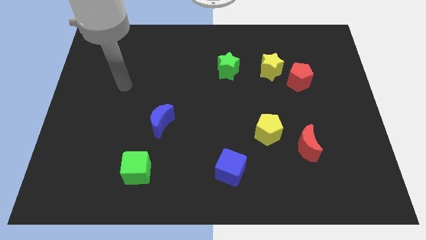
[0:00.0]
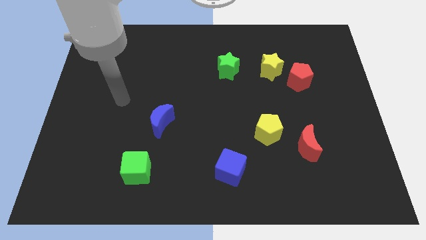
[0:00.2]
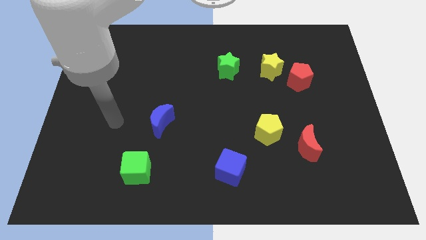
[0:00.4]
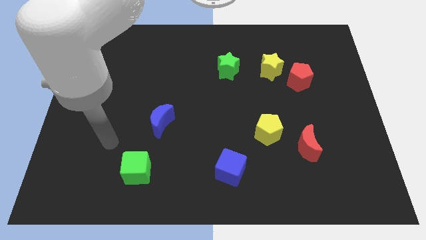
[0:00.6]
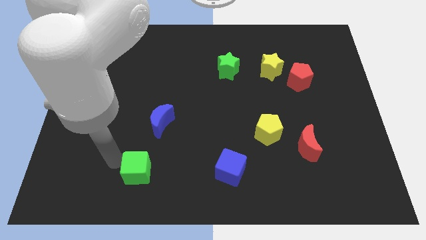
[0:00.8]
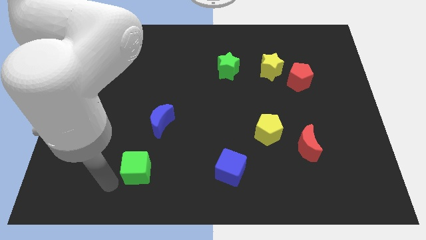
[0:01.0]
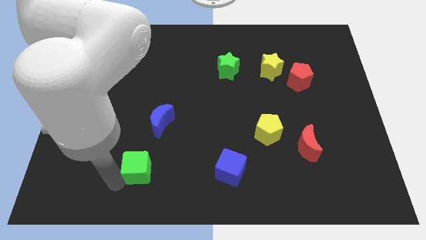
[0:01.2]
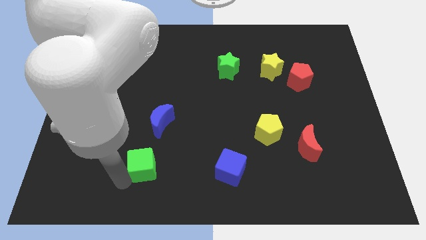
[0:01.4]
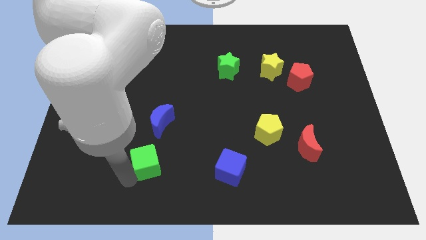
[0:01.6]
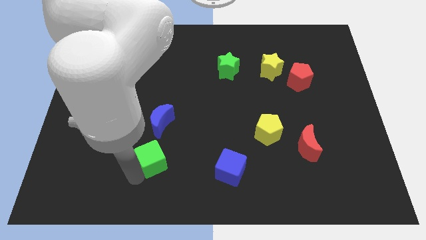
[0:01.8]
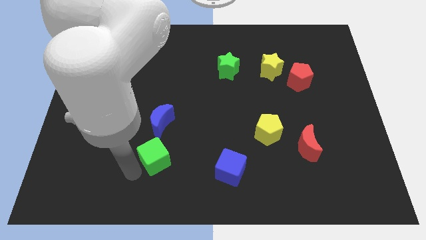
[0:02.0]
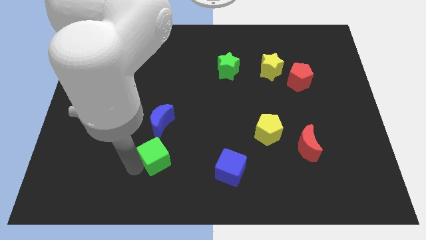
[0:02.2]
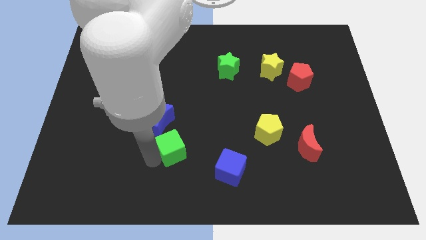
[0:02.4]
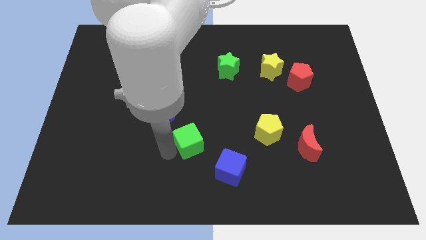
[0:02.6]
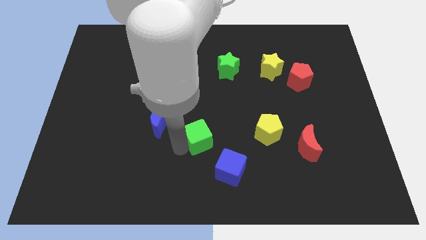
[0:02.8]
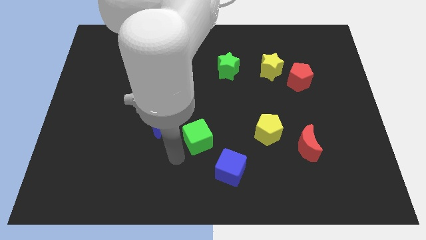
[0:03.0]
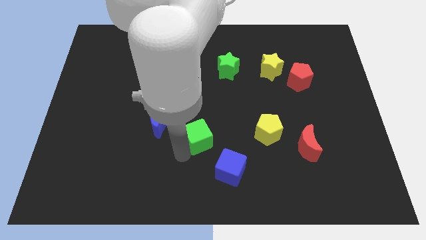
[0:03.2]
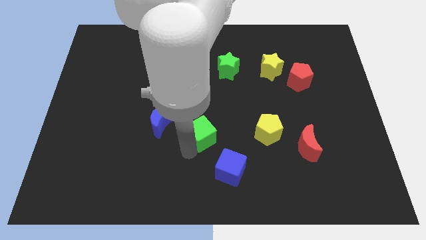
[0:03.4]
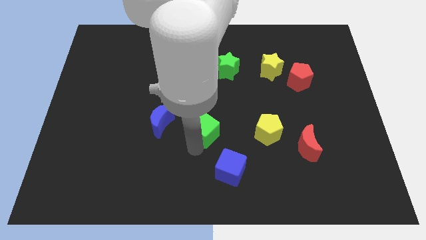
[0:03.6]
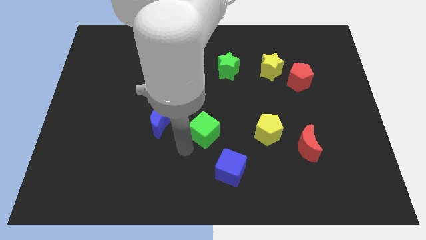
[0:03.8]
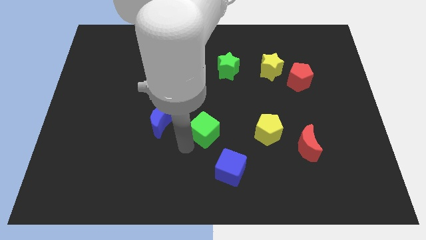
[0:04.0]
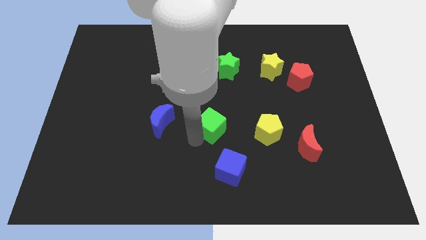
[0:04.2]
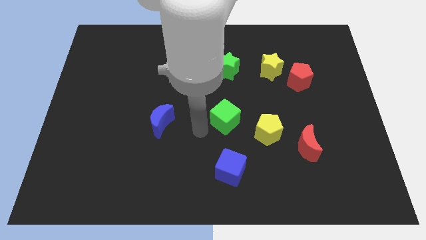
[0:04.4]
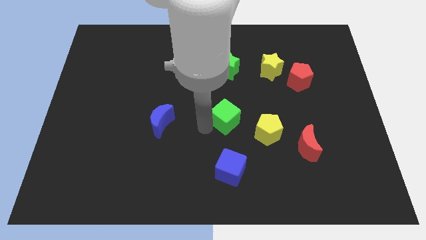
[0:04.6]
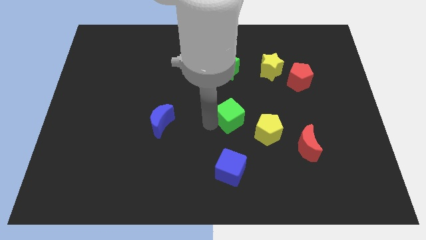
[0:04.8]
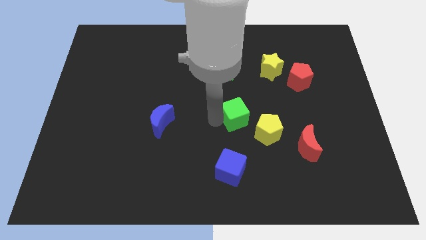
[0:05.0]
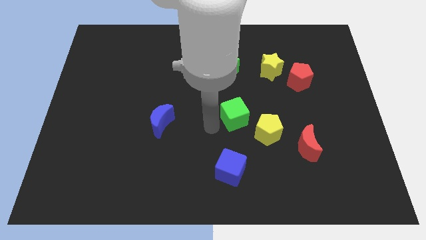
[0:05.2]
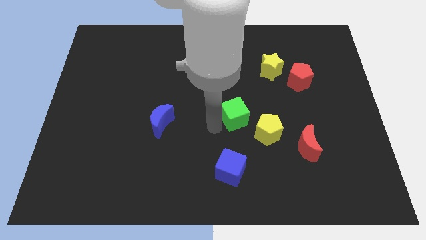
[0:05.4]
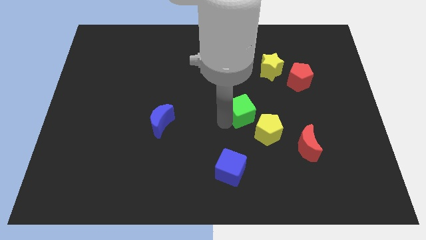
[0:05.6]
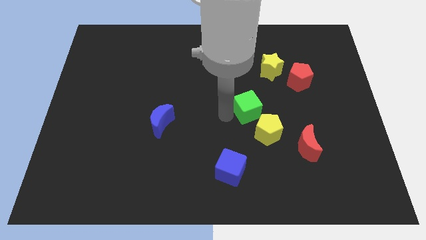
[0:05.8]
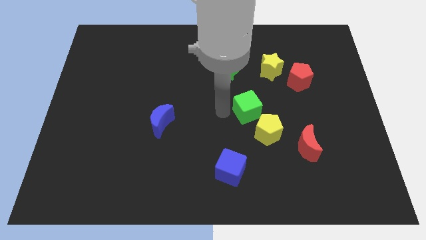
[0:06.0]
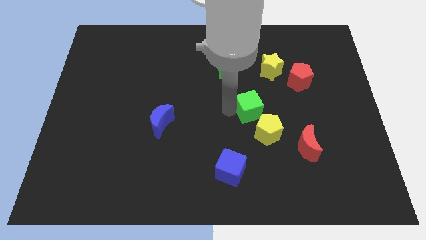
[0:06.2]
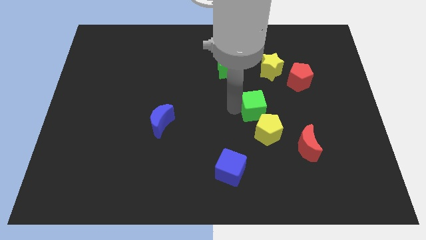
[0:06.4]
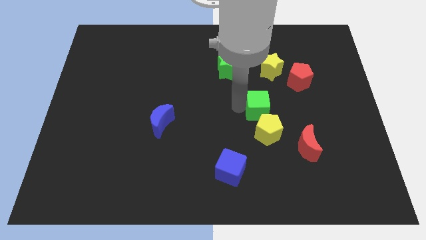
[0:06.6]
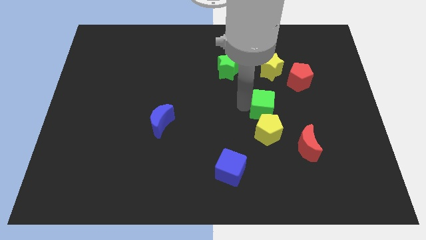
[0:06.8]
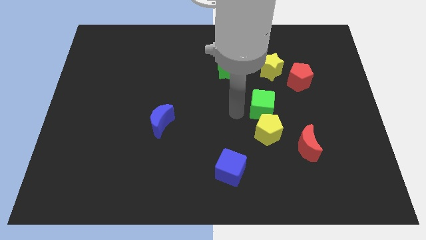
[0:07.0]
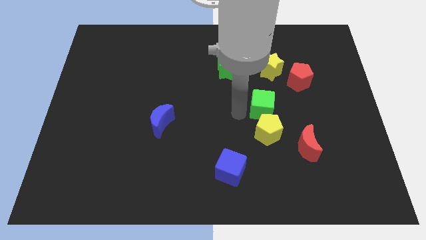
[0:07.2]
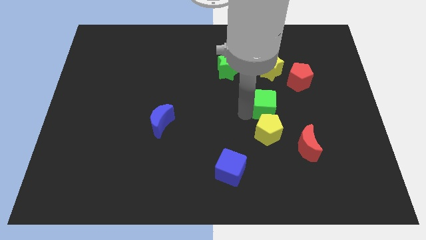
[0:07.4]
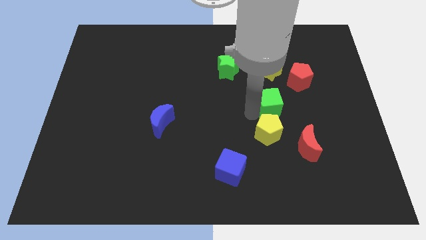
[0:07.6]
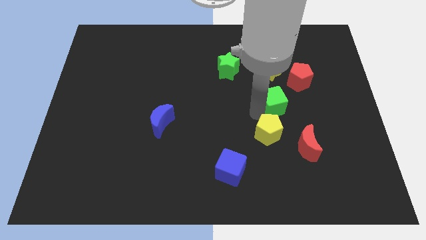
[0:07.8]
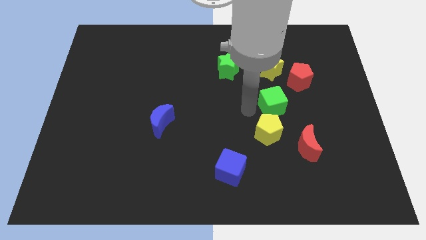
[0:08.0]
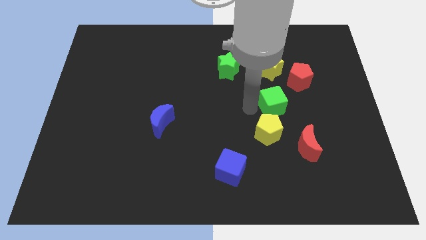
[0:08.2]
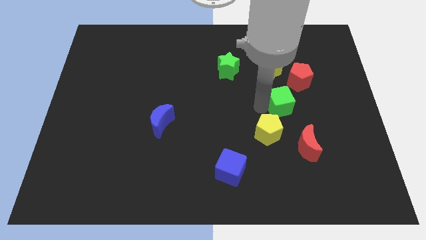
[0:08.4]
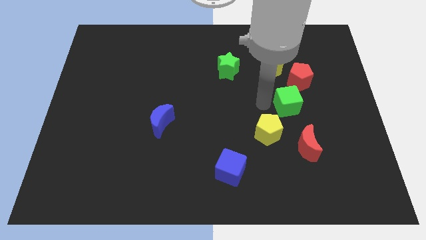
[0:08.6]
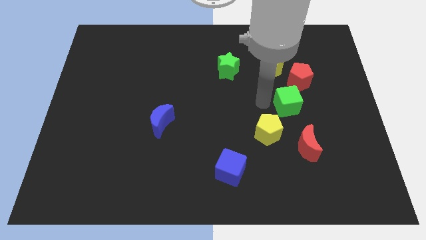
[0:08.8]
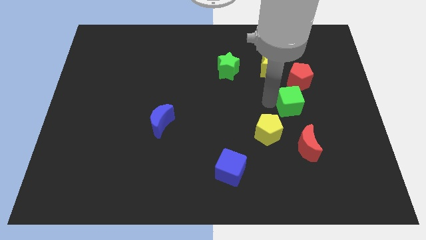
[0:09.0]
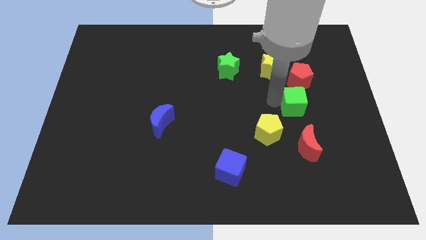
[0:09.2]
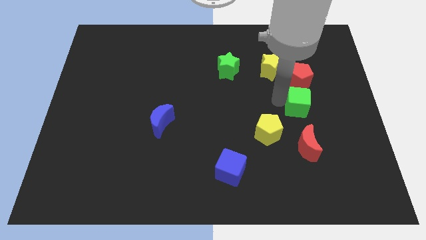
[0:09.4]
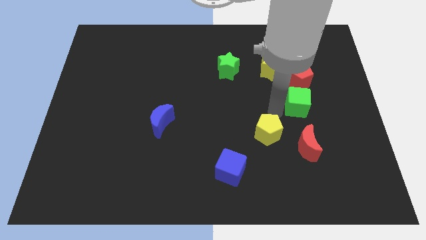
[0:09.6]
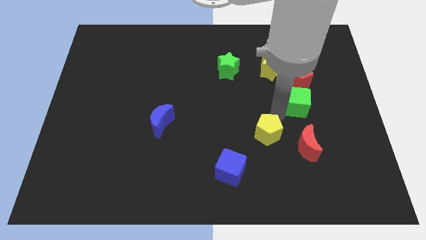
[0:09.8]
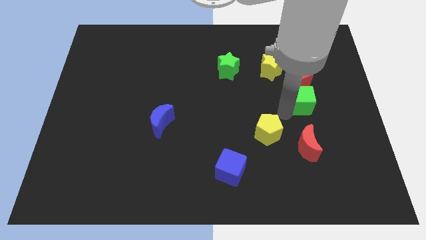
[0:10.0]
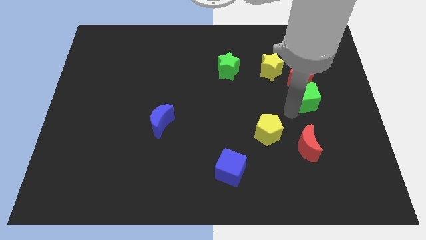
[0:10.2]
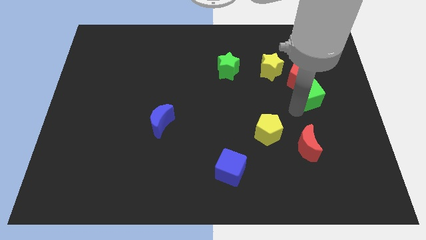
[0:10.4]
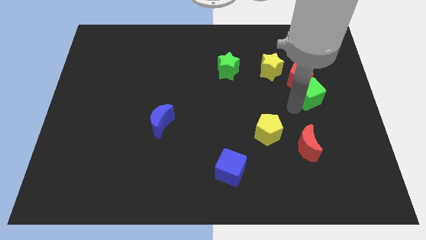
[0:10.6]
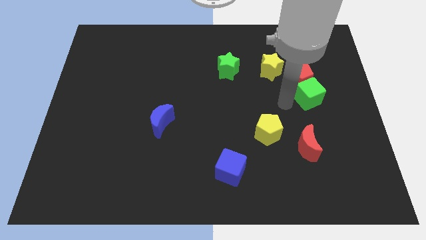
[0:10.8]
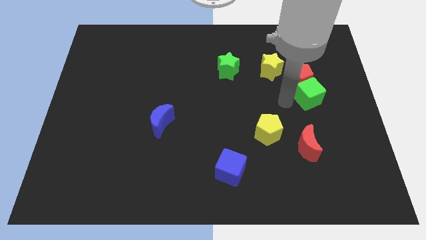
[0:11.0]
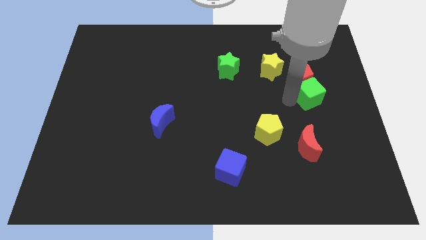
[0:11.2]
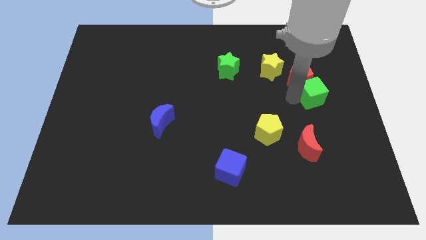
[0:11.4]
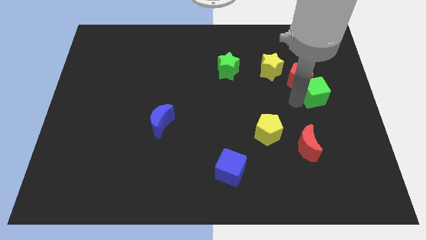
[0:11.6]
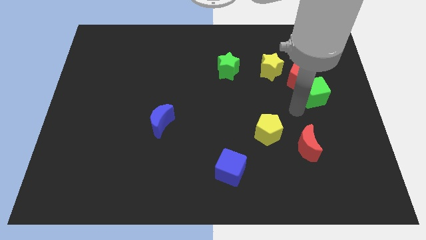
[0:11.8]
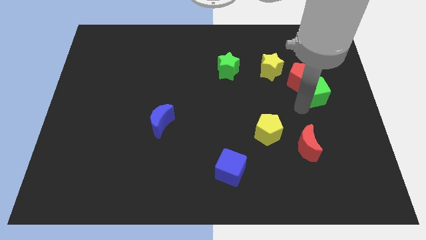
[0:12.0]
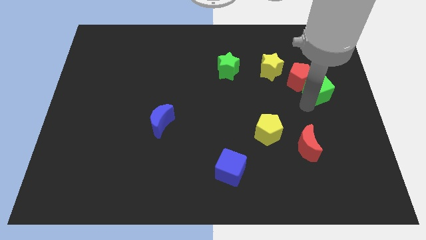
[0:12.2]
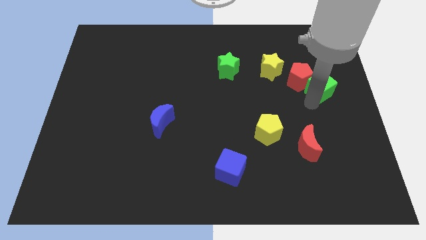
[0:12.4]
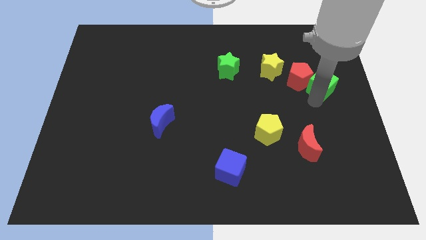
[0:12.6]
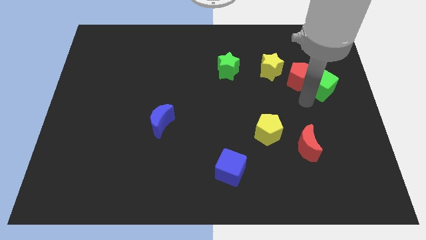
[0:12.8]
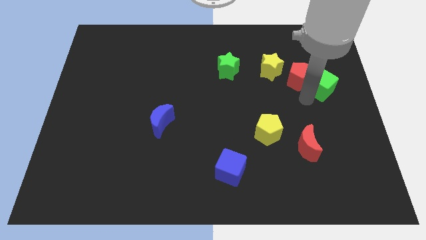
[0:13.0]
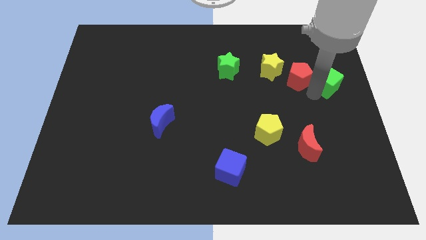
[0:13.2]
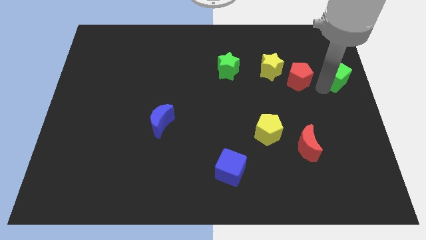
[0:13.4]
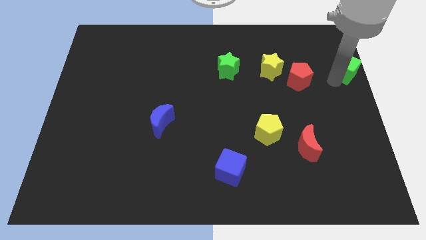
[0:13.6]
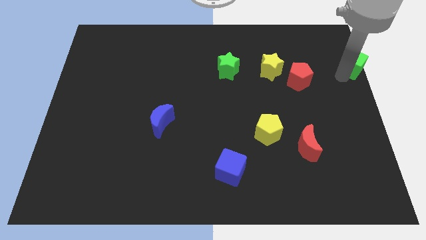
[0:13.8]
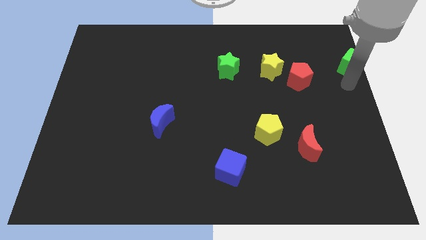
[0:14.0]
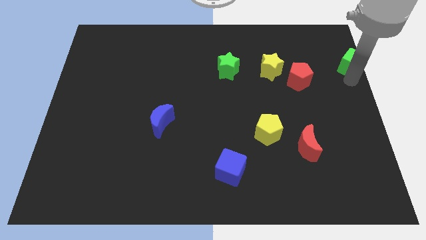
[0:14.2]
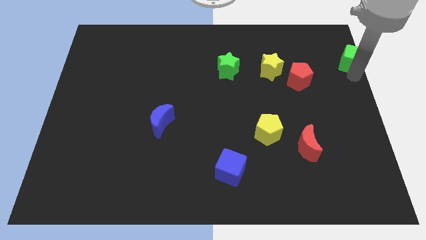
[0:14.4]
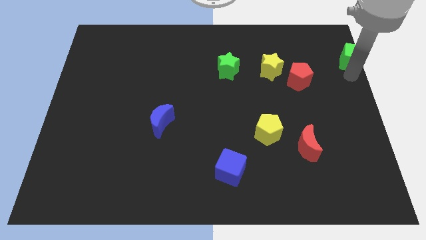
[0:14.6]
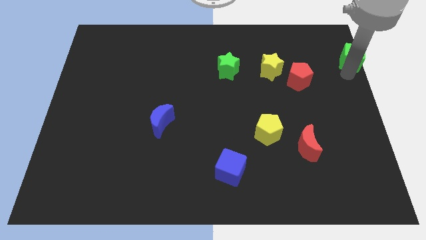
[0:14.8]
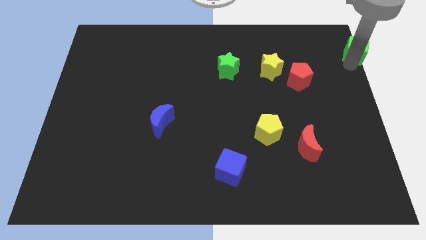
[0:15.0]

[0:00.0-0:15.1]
move the green cube to the top right corner
